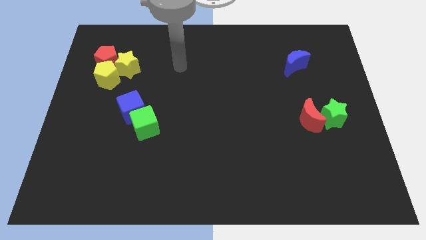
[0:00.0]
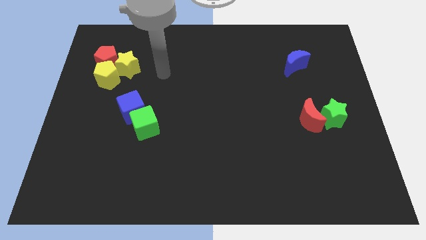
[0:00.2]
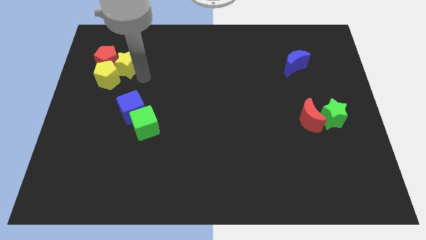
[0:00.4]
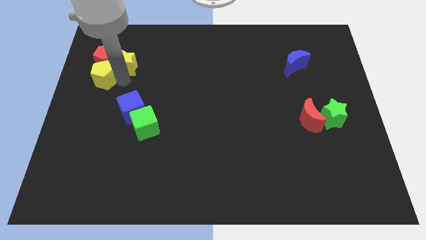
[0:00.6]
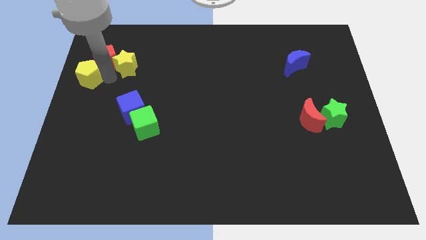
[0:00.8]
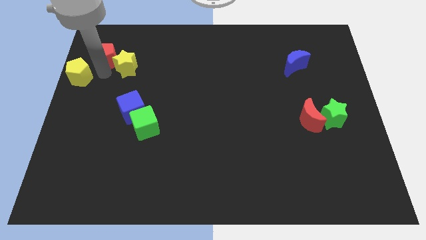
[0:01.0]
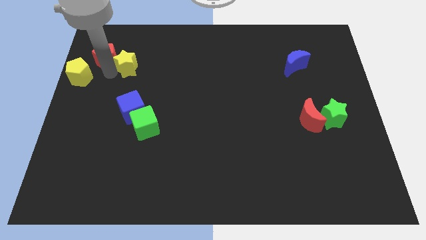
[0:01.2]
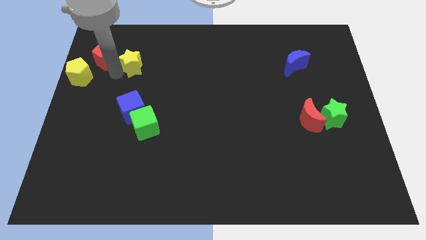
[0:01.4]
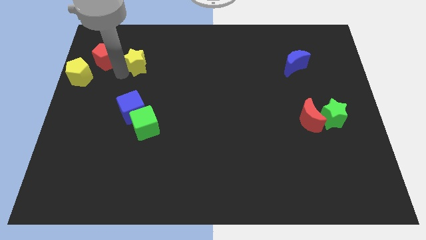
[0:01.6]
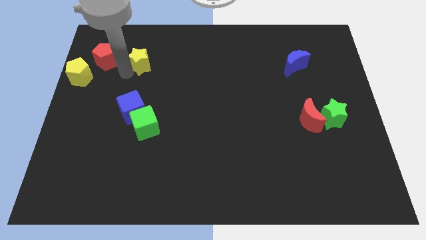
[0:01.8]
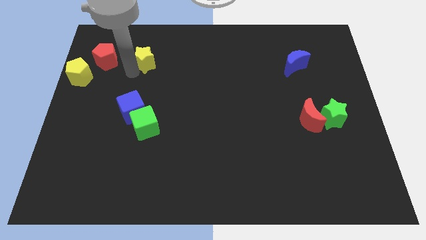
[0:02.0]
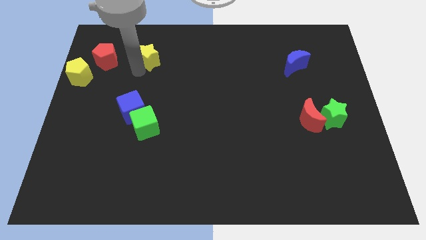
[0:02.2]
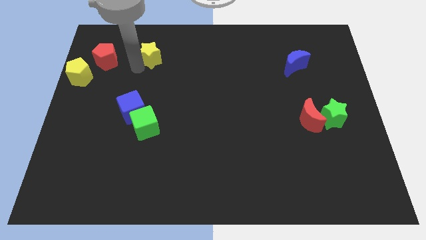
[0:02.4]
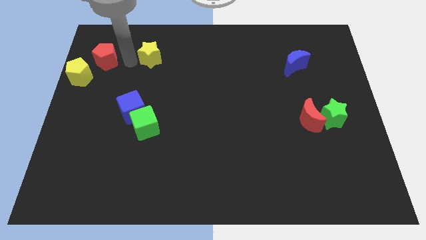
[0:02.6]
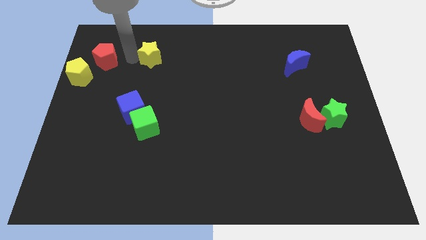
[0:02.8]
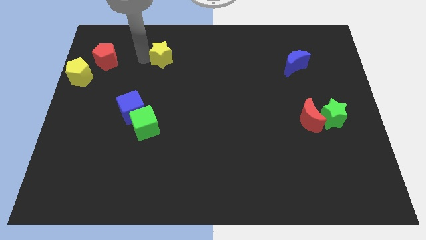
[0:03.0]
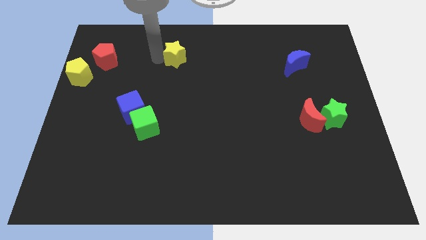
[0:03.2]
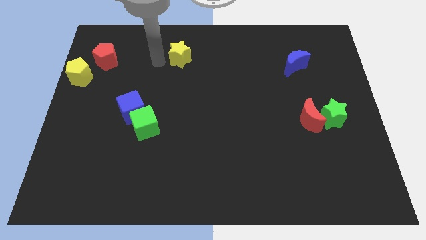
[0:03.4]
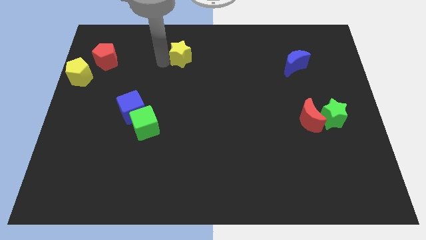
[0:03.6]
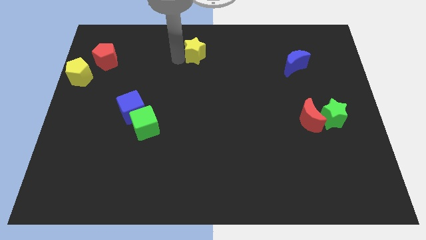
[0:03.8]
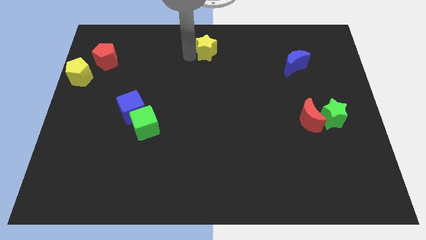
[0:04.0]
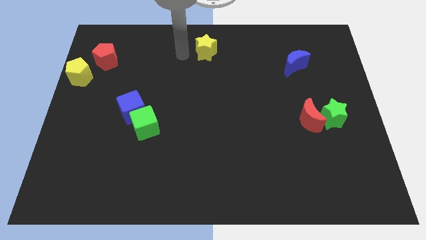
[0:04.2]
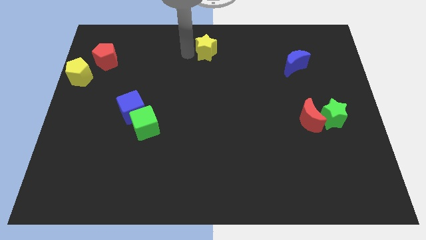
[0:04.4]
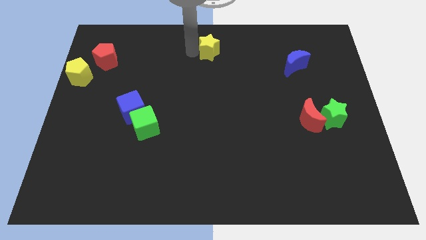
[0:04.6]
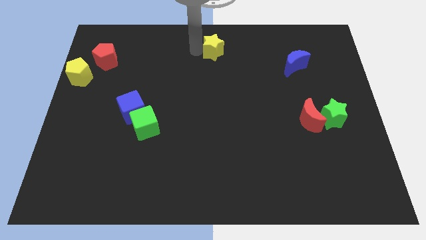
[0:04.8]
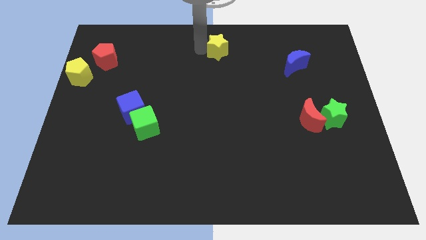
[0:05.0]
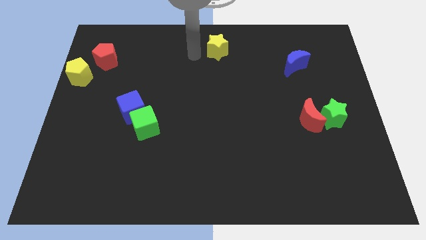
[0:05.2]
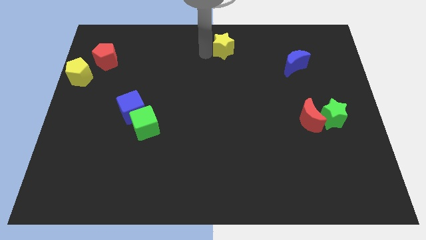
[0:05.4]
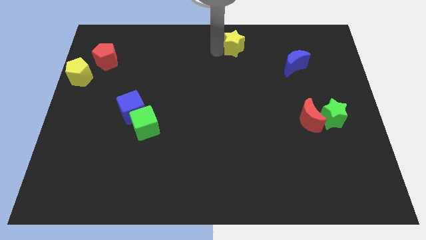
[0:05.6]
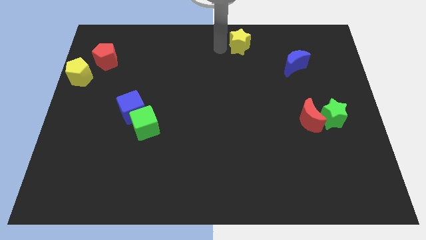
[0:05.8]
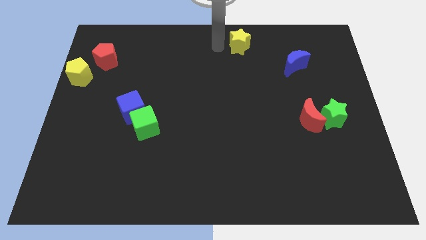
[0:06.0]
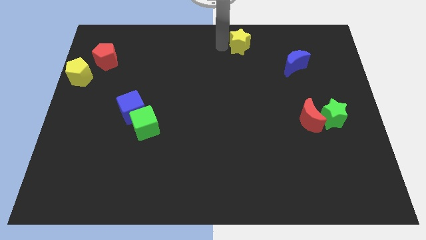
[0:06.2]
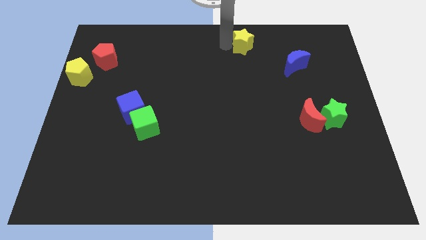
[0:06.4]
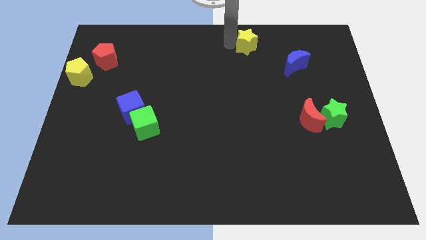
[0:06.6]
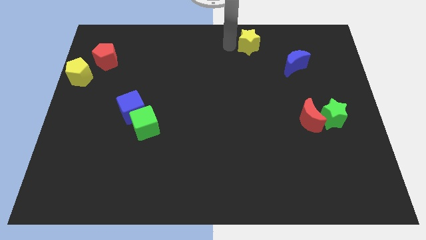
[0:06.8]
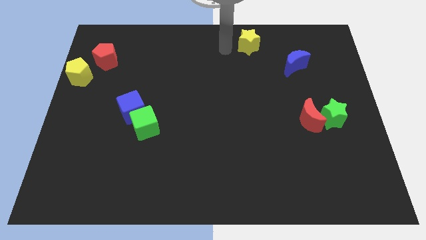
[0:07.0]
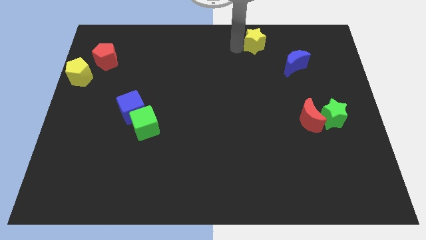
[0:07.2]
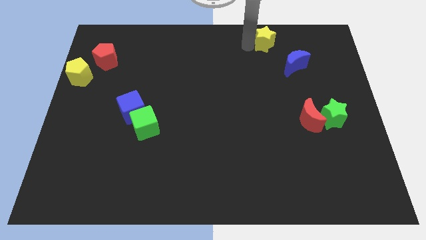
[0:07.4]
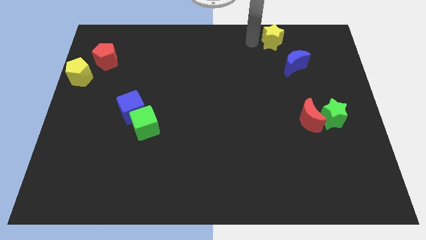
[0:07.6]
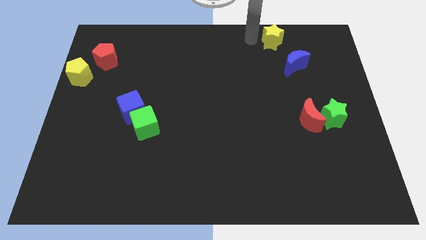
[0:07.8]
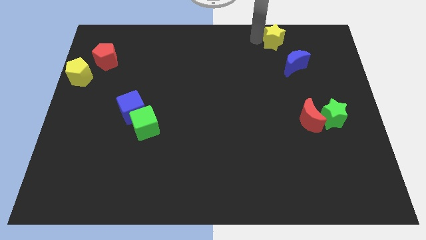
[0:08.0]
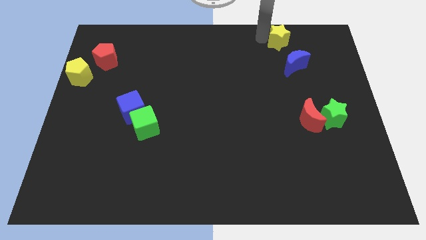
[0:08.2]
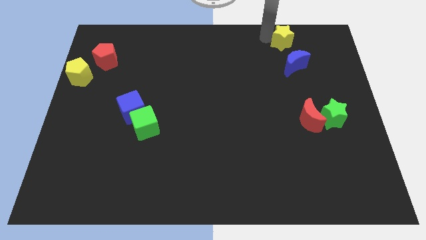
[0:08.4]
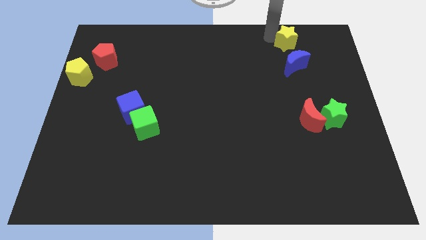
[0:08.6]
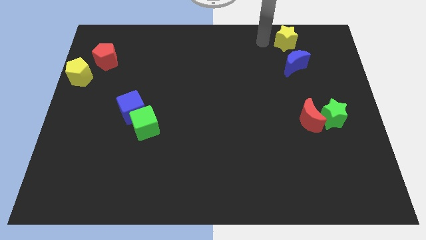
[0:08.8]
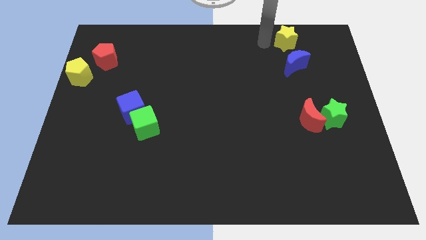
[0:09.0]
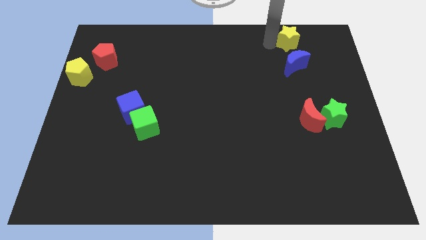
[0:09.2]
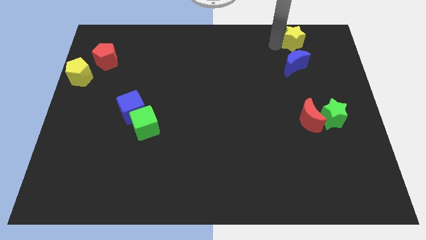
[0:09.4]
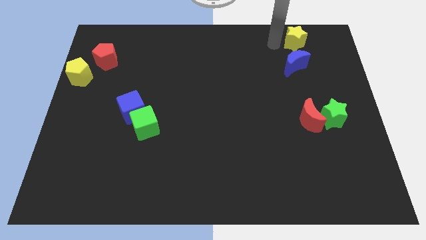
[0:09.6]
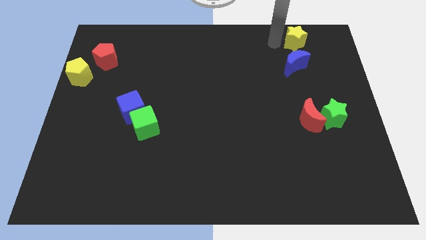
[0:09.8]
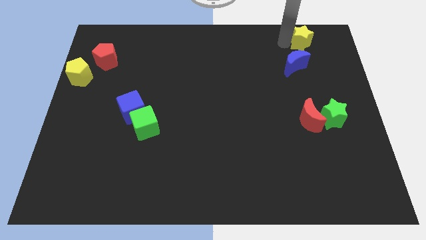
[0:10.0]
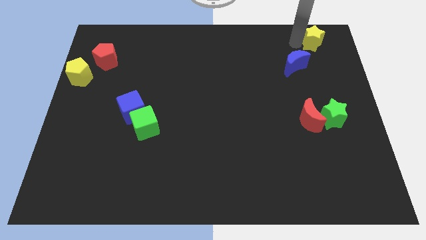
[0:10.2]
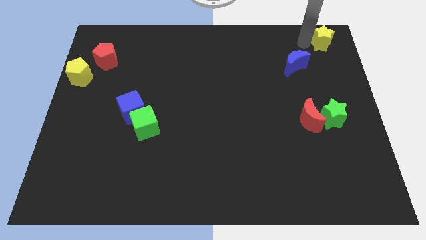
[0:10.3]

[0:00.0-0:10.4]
push the yellow star to the upper right corner

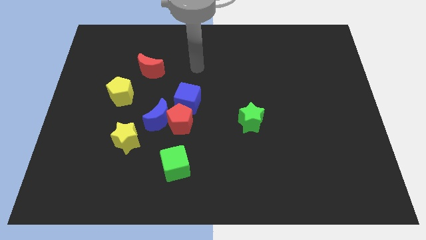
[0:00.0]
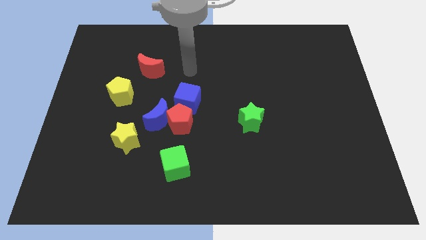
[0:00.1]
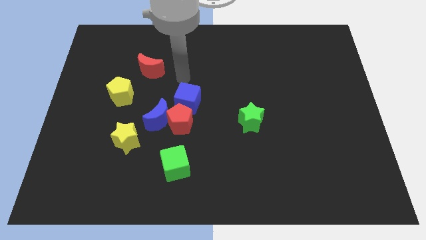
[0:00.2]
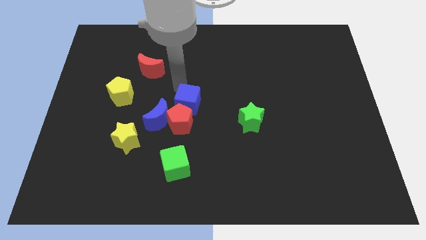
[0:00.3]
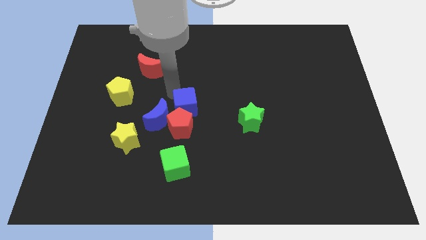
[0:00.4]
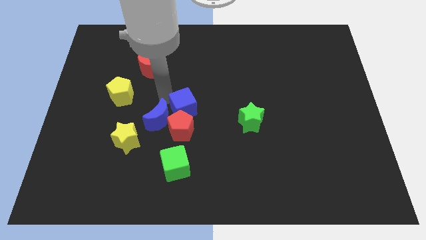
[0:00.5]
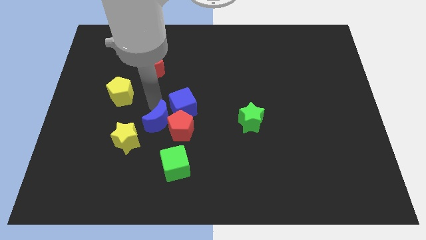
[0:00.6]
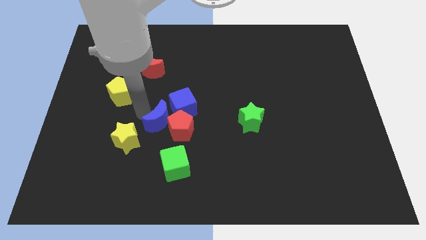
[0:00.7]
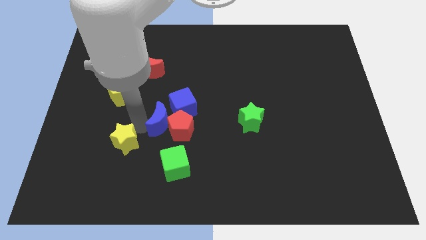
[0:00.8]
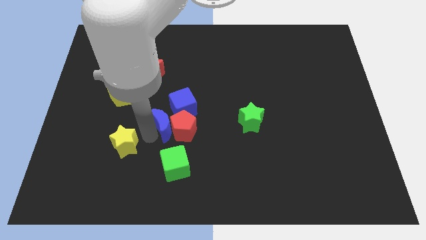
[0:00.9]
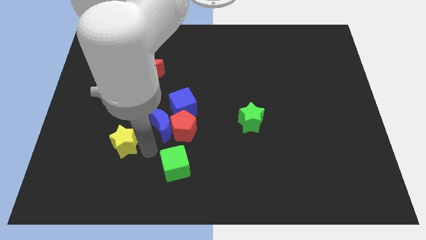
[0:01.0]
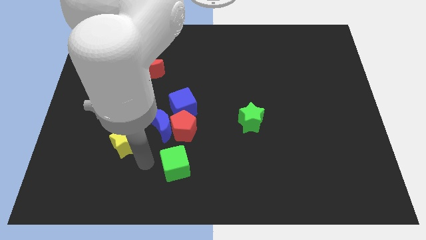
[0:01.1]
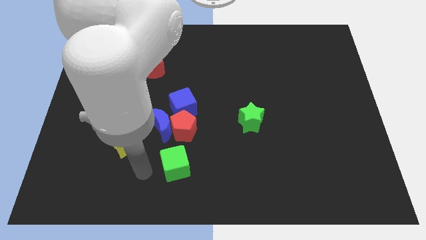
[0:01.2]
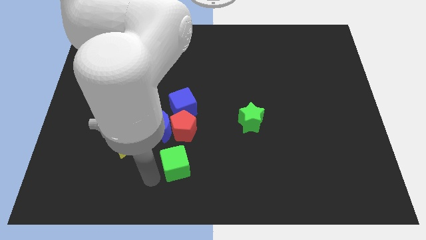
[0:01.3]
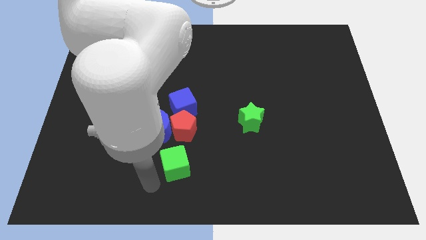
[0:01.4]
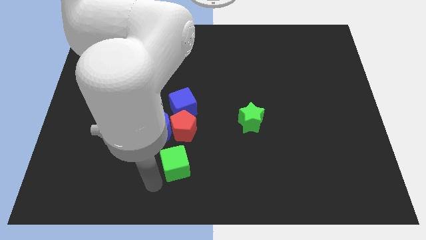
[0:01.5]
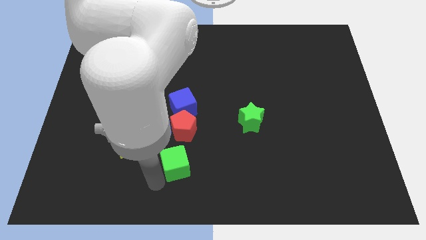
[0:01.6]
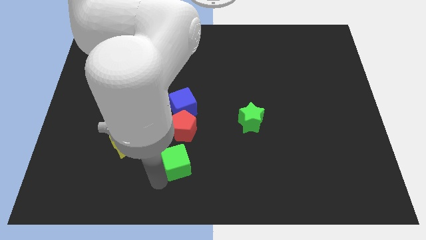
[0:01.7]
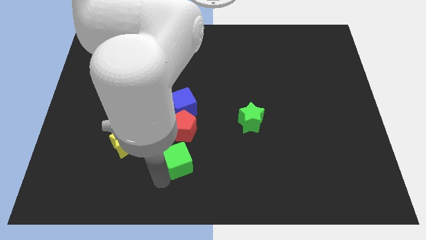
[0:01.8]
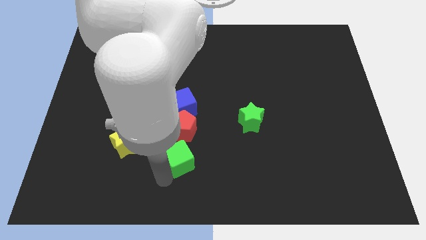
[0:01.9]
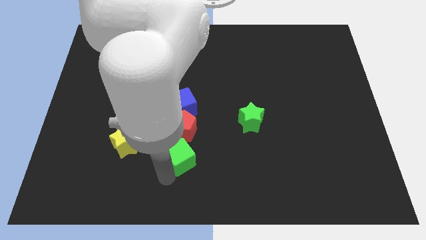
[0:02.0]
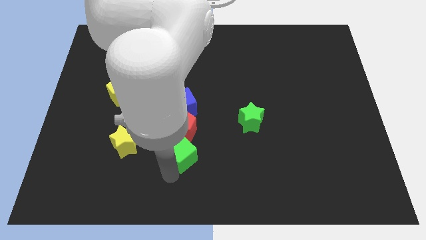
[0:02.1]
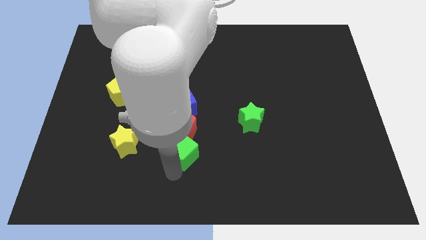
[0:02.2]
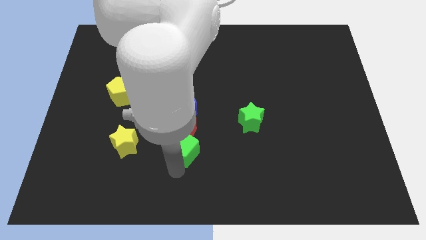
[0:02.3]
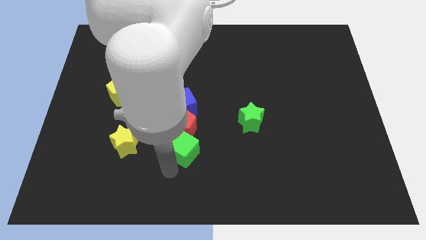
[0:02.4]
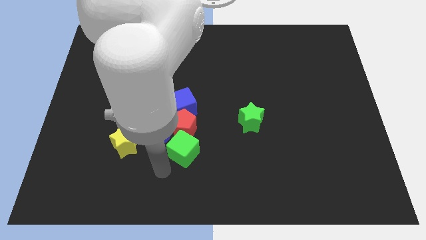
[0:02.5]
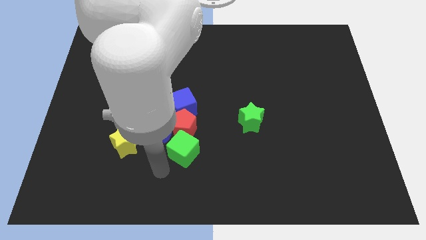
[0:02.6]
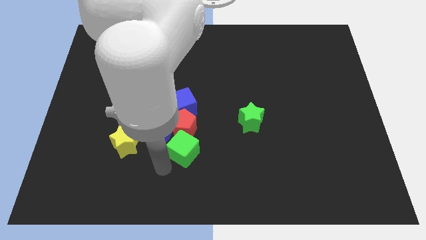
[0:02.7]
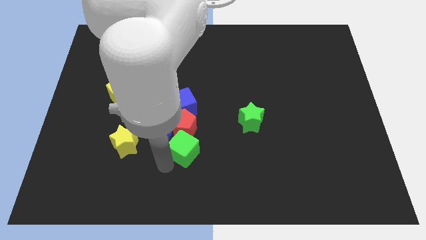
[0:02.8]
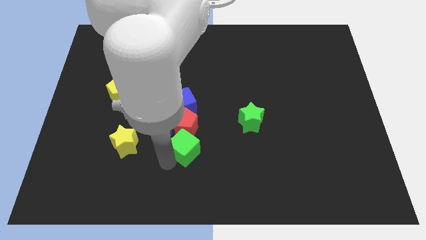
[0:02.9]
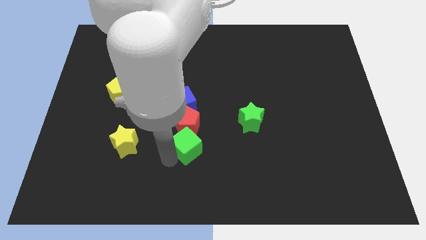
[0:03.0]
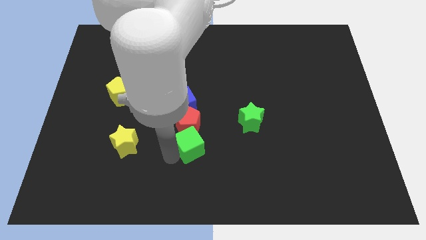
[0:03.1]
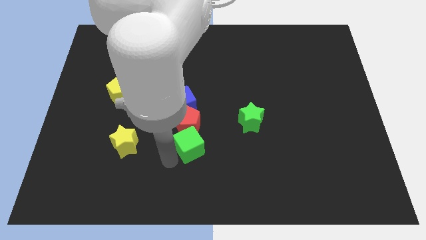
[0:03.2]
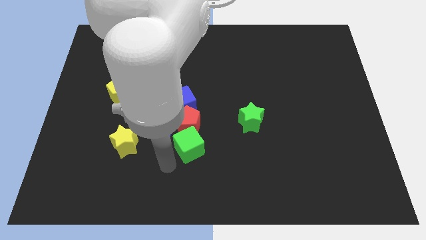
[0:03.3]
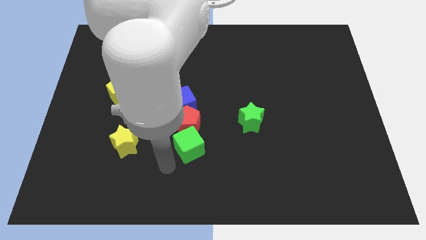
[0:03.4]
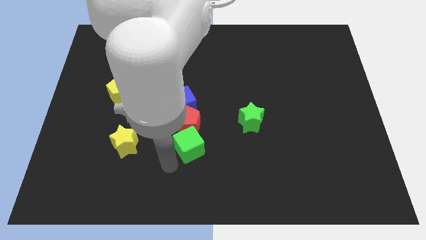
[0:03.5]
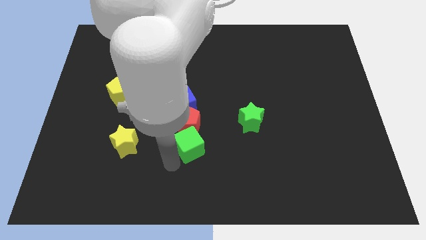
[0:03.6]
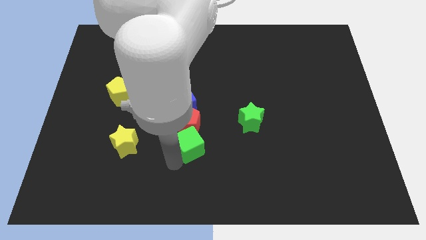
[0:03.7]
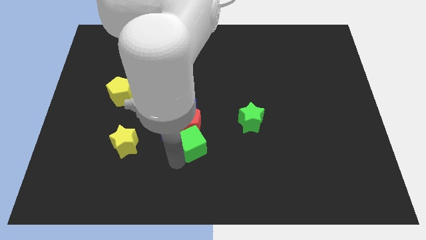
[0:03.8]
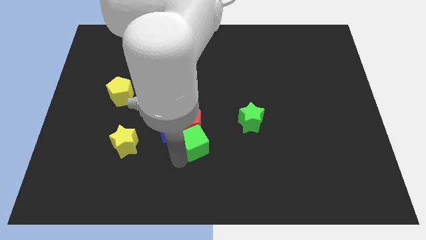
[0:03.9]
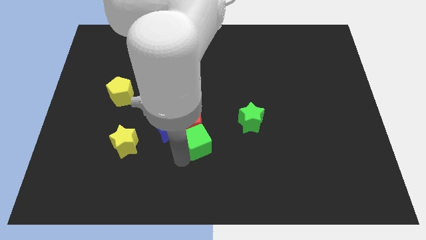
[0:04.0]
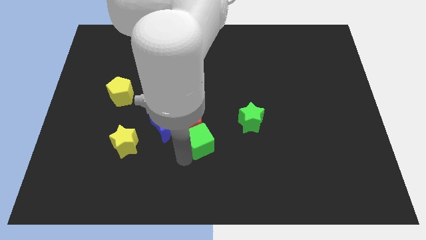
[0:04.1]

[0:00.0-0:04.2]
move the green cube to the center of the board
